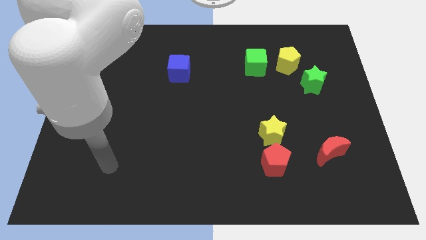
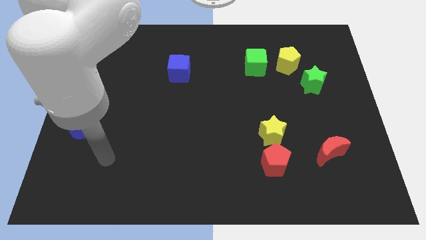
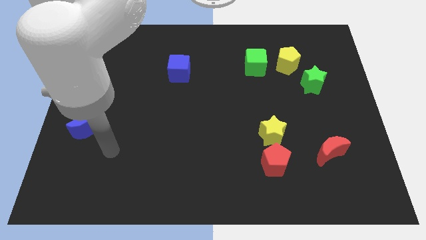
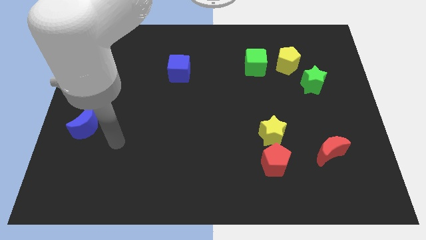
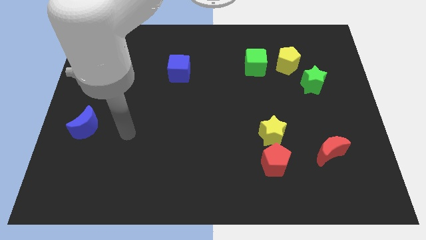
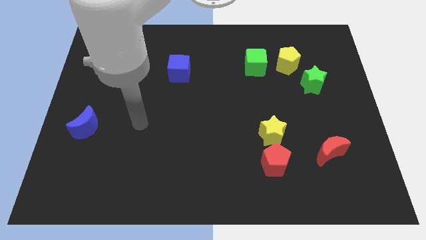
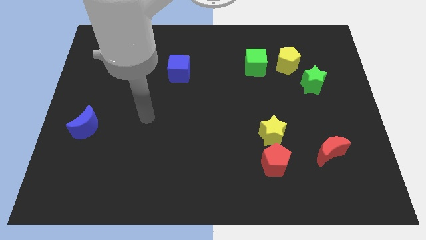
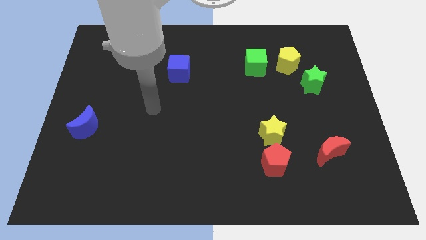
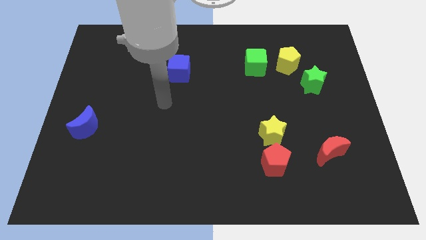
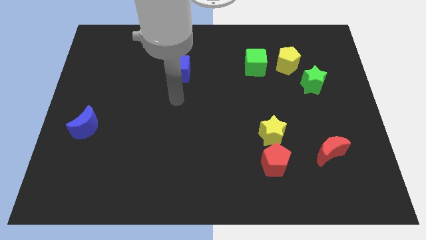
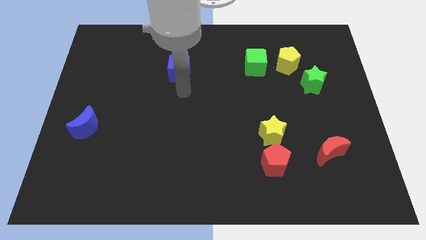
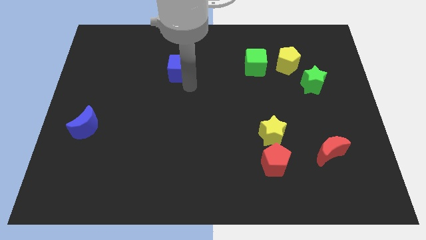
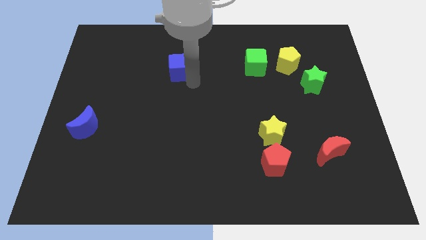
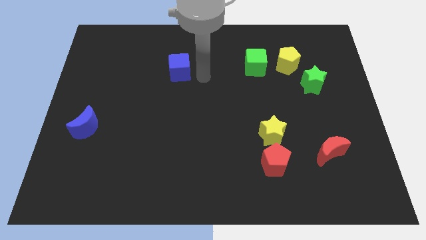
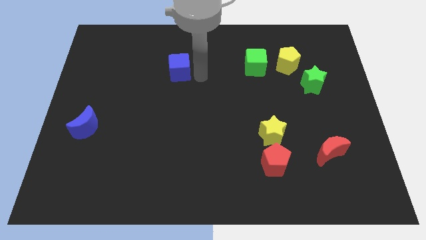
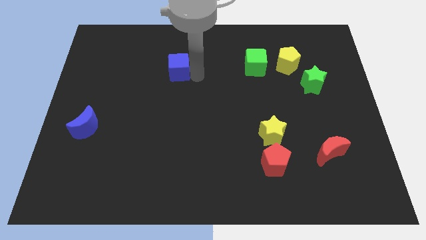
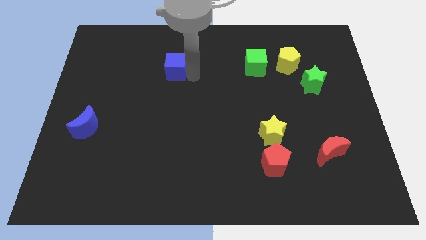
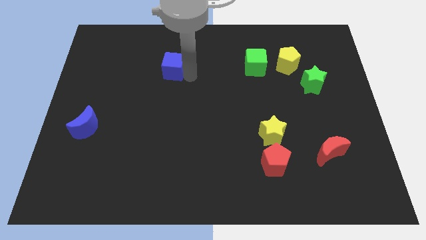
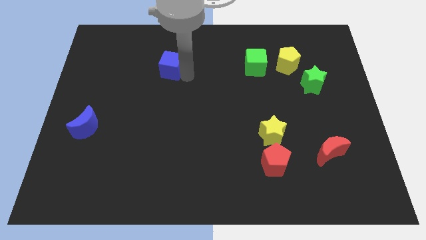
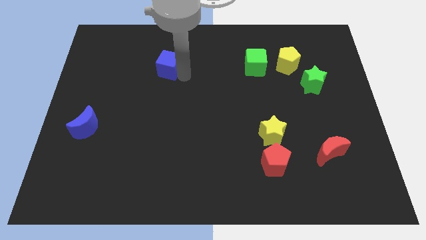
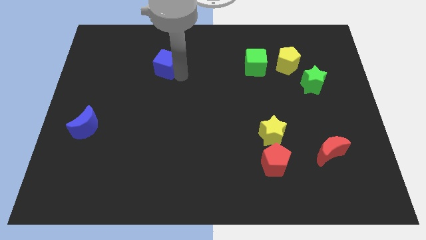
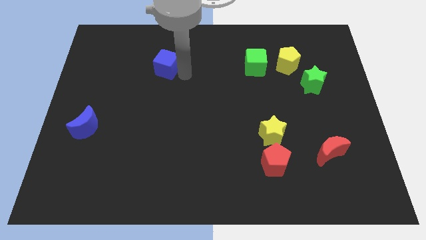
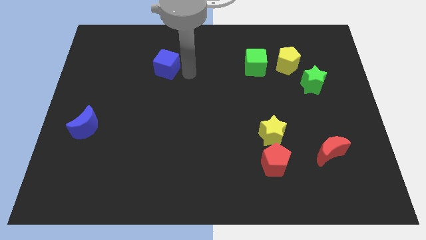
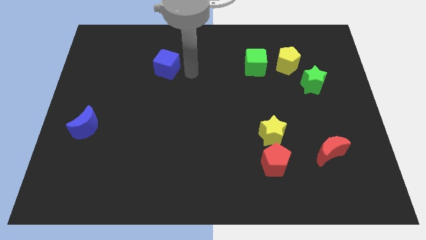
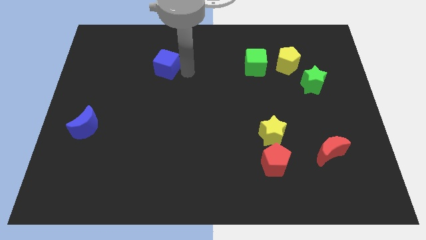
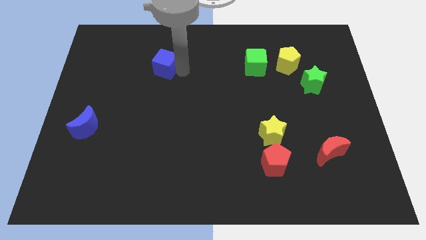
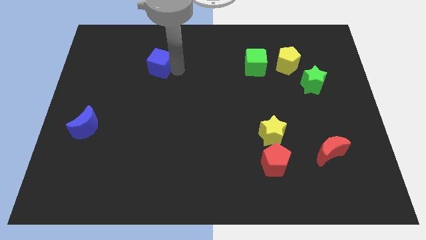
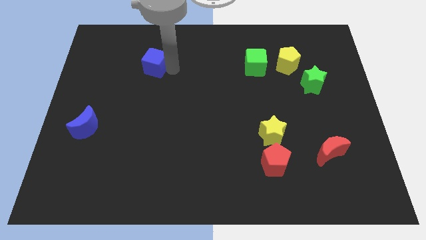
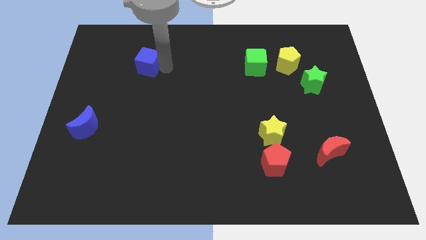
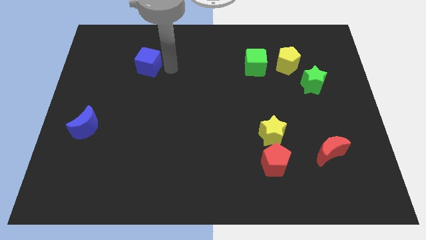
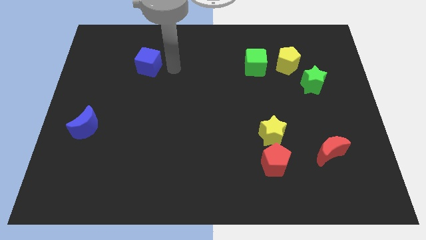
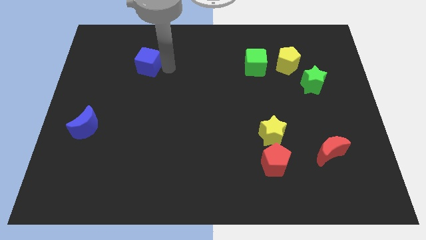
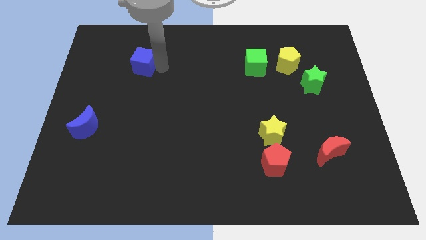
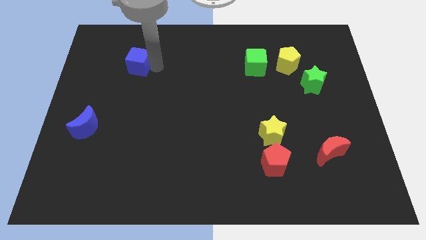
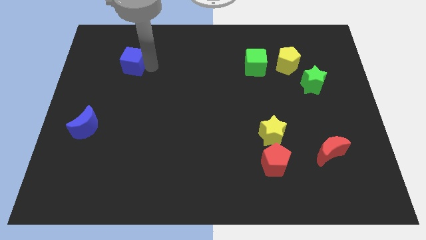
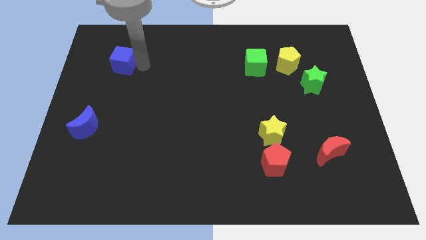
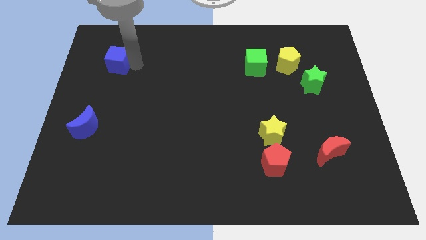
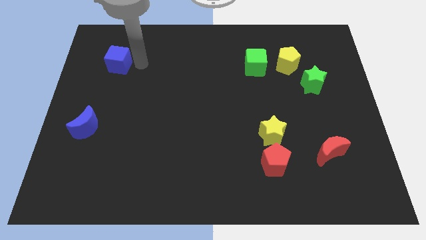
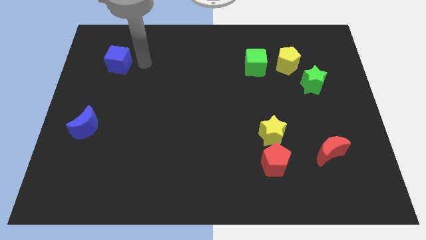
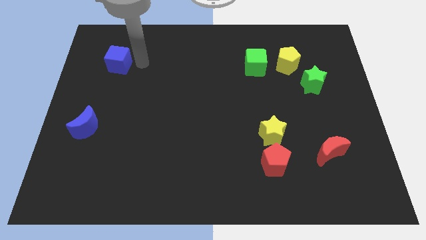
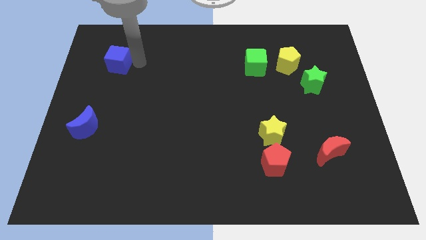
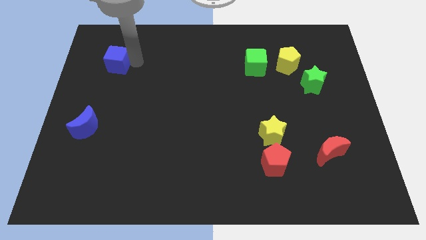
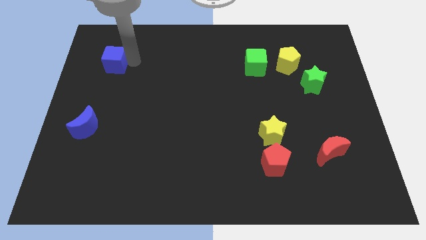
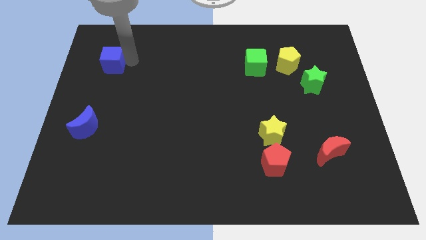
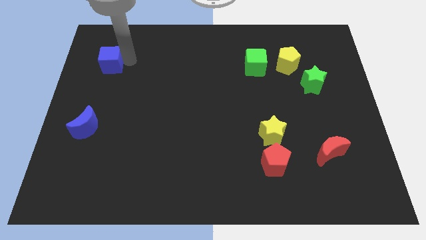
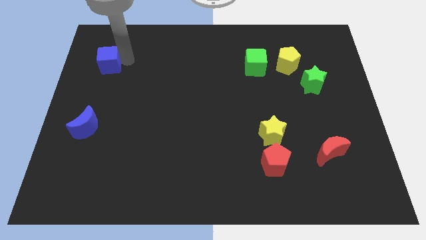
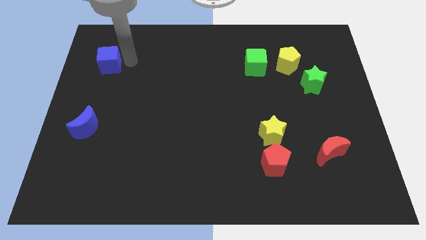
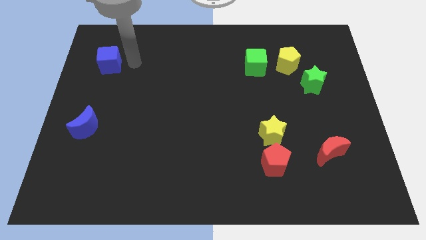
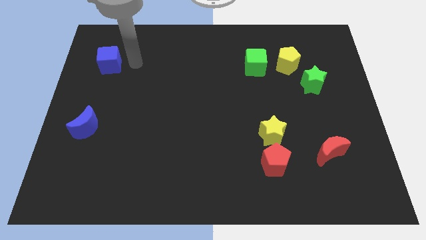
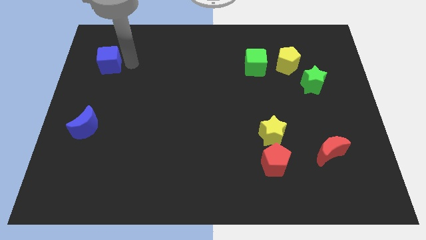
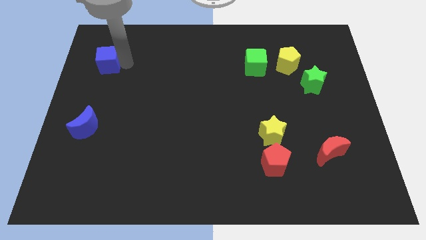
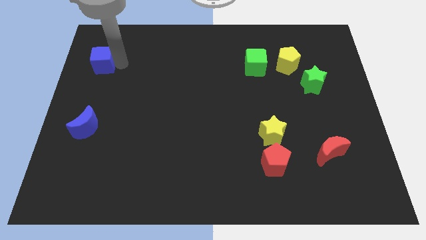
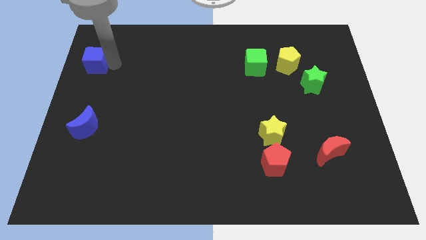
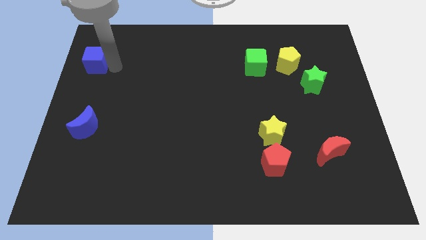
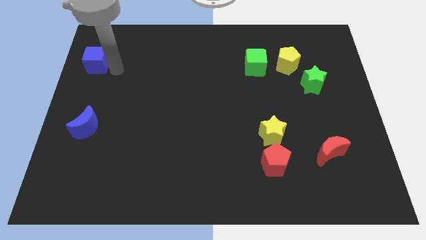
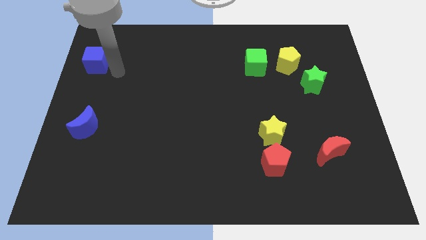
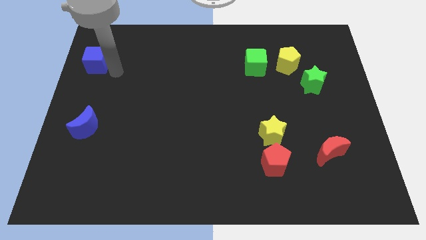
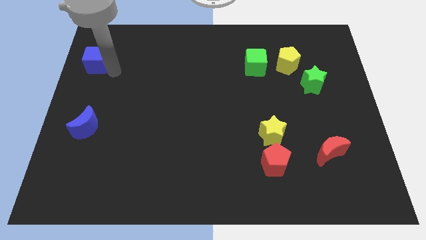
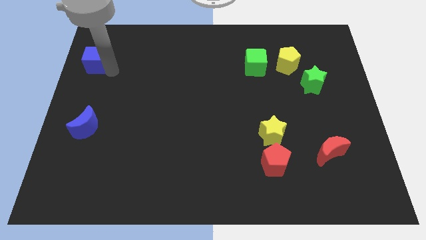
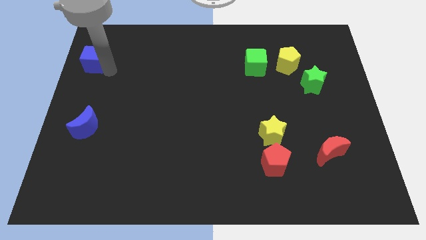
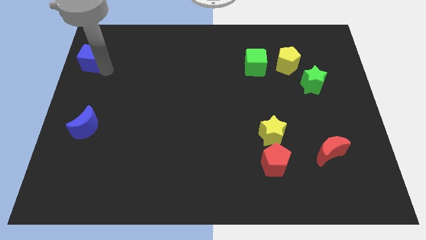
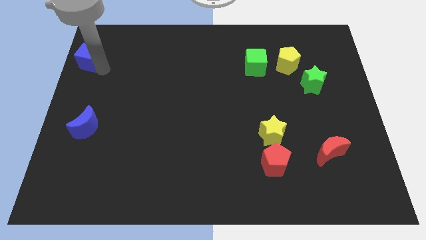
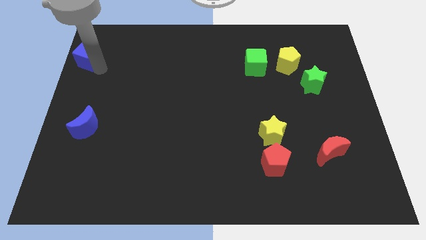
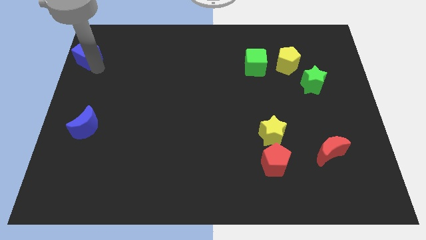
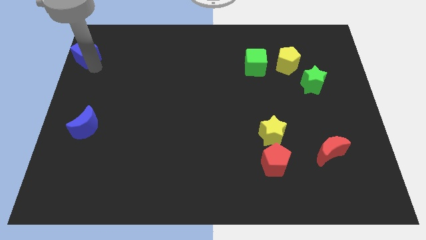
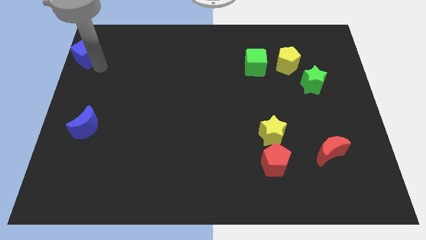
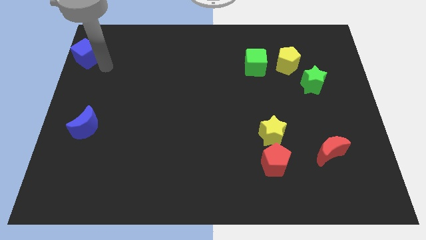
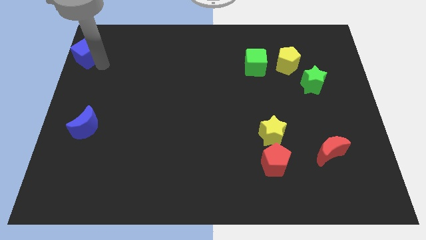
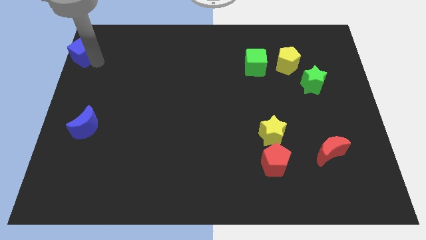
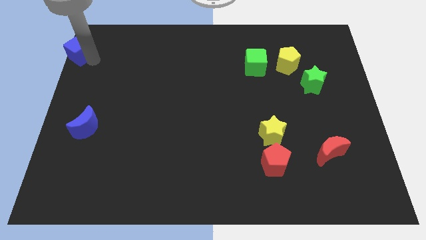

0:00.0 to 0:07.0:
push the blue cube to the top left of the board
